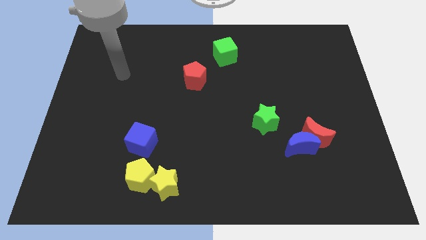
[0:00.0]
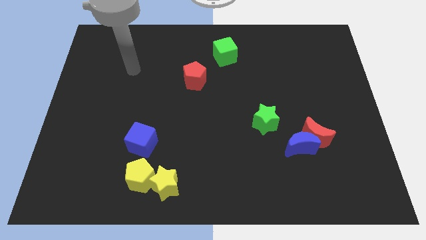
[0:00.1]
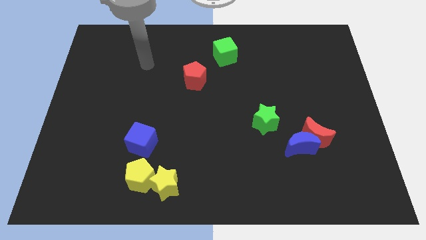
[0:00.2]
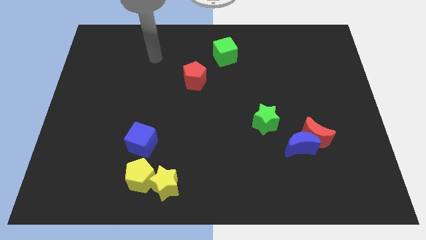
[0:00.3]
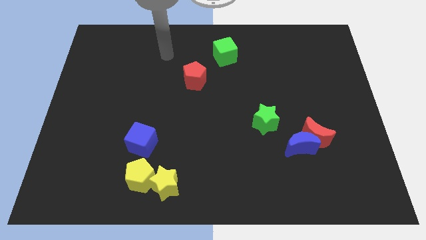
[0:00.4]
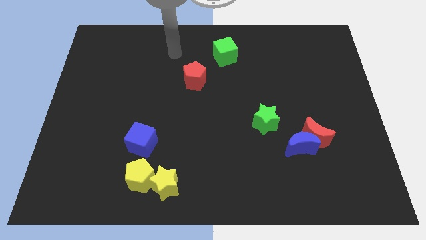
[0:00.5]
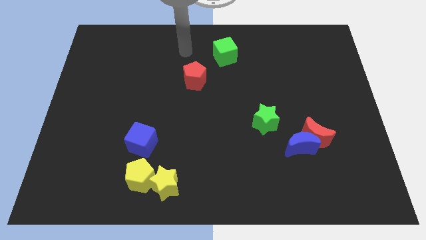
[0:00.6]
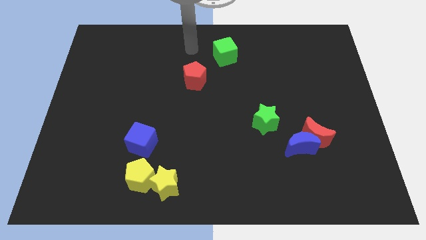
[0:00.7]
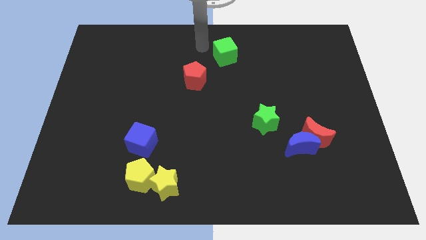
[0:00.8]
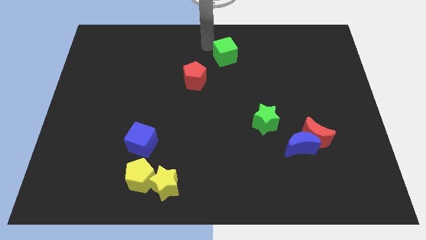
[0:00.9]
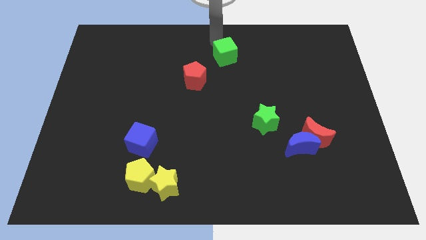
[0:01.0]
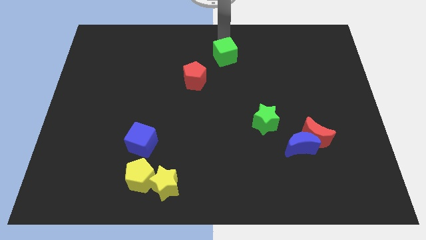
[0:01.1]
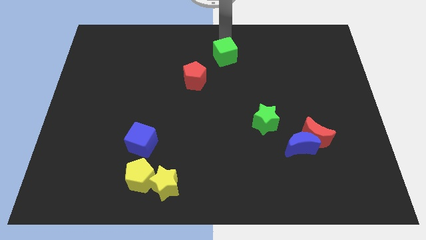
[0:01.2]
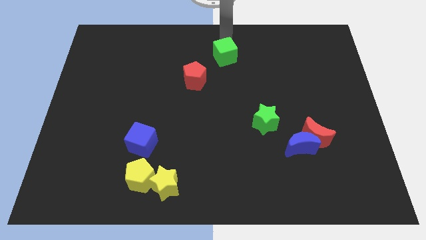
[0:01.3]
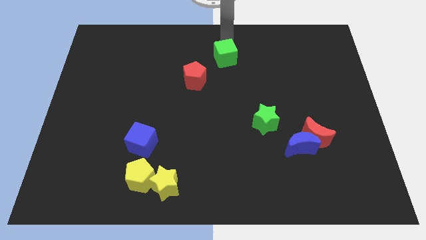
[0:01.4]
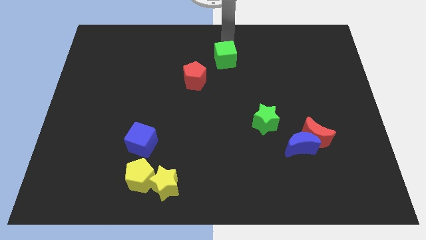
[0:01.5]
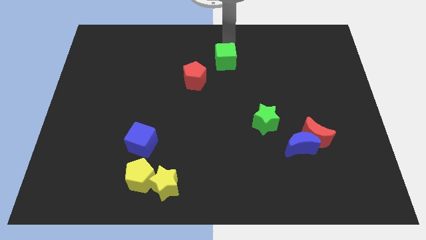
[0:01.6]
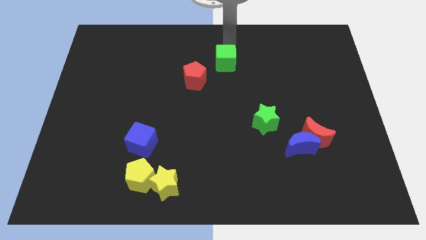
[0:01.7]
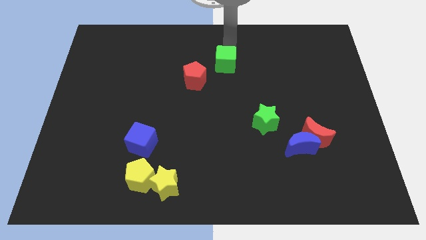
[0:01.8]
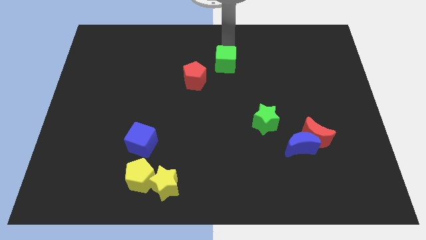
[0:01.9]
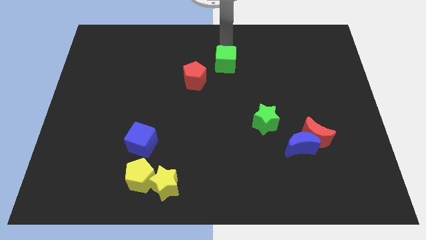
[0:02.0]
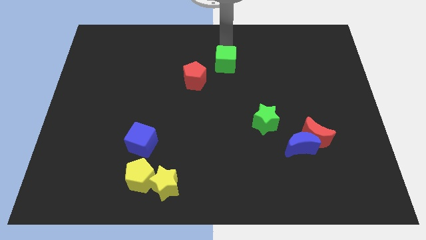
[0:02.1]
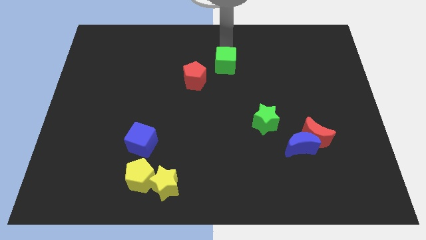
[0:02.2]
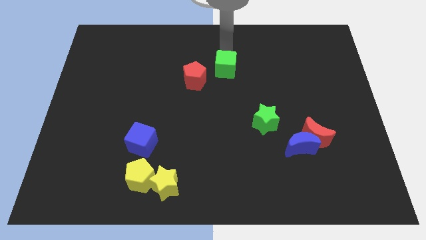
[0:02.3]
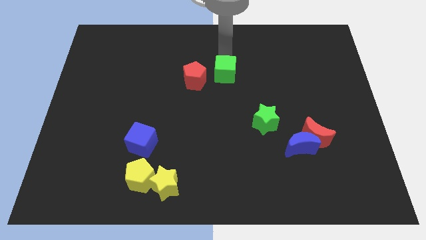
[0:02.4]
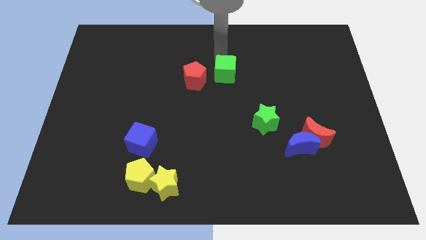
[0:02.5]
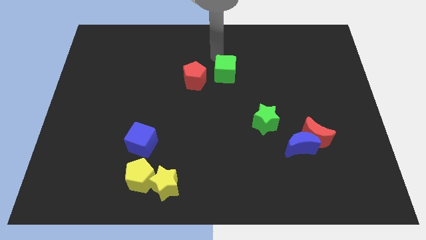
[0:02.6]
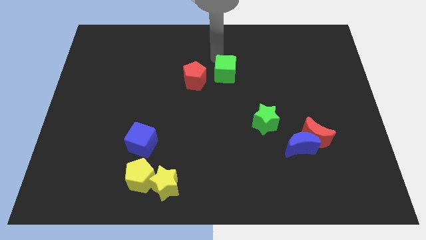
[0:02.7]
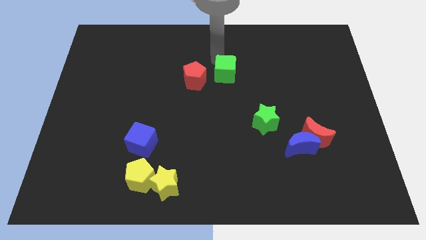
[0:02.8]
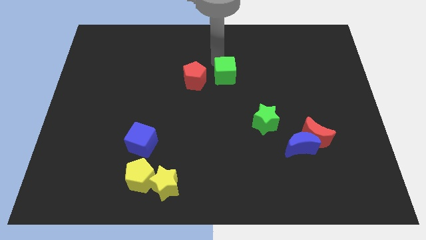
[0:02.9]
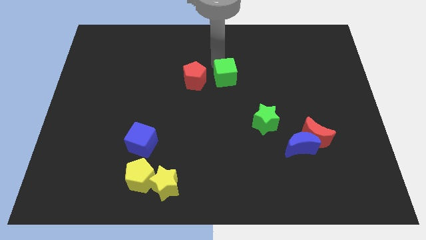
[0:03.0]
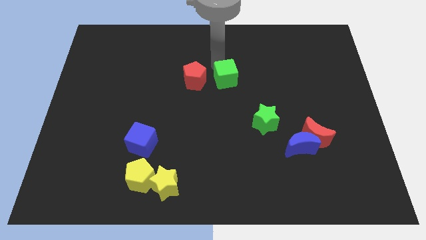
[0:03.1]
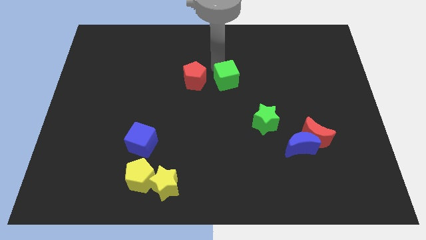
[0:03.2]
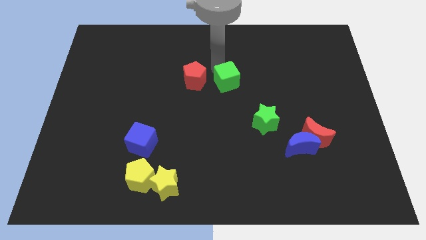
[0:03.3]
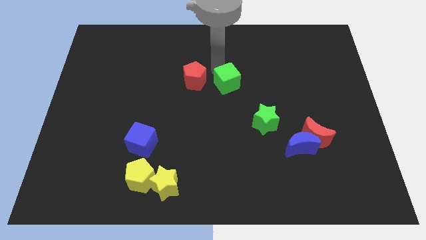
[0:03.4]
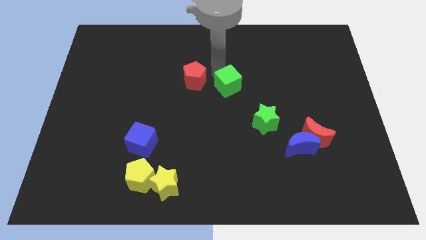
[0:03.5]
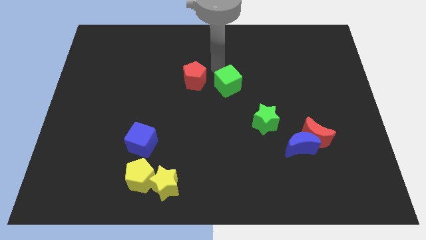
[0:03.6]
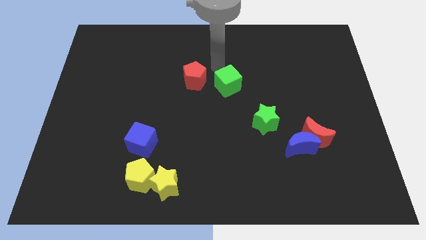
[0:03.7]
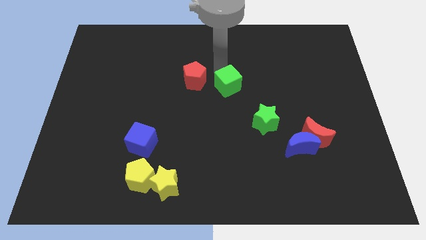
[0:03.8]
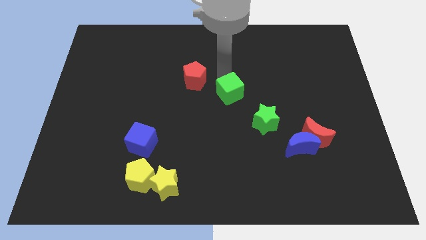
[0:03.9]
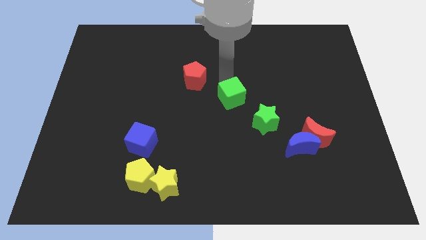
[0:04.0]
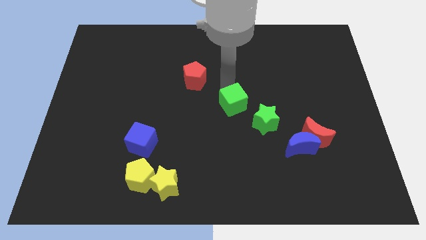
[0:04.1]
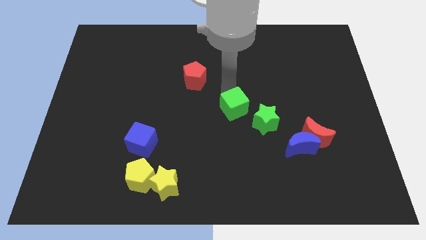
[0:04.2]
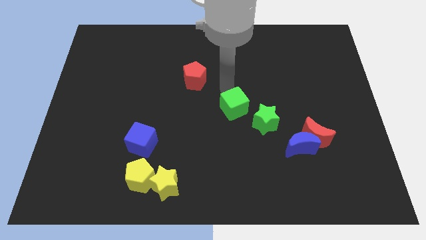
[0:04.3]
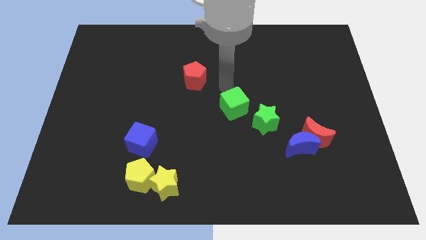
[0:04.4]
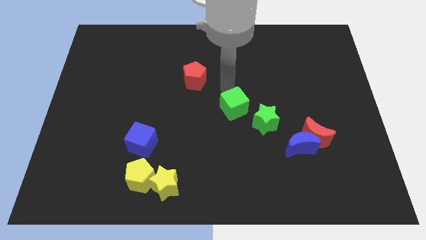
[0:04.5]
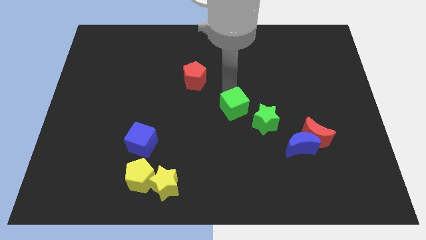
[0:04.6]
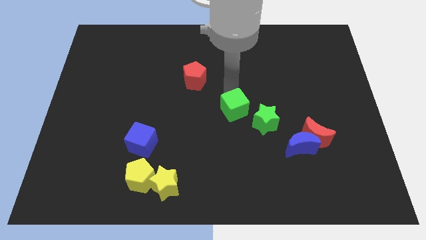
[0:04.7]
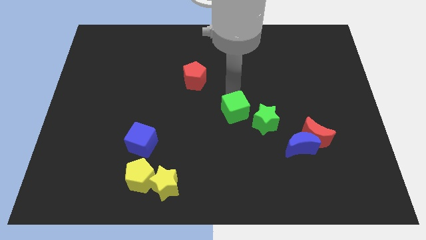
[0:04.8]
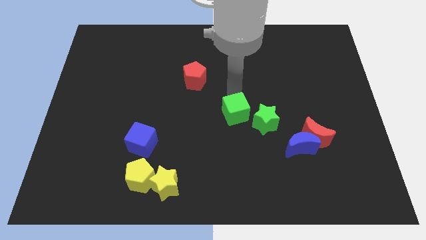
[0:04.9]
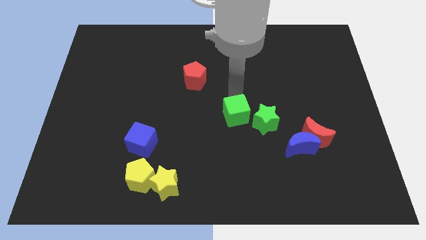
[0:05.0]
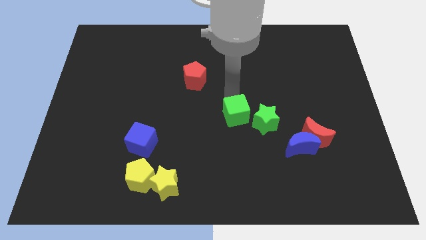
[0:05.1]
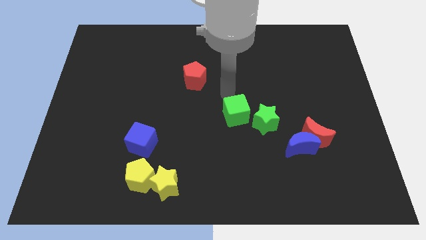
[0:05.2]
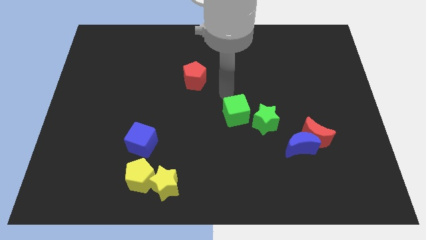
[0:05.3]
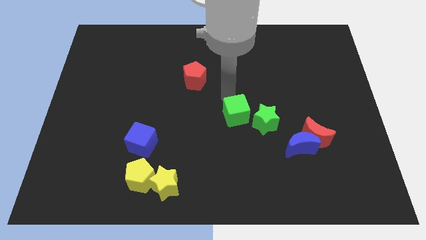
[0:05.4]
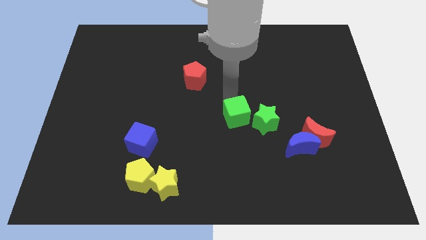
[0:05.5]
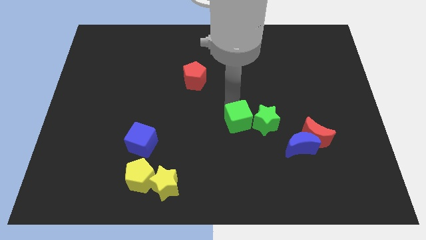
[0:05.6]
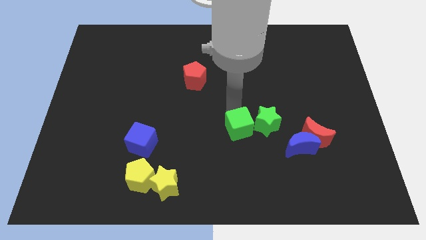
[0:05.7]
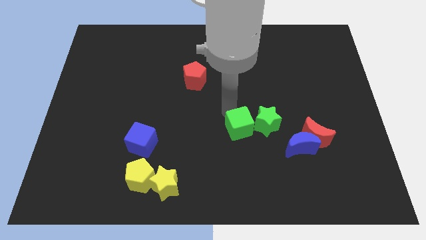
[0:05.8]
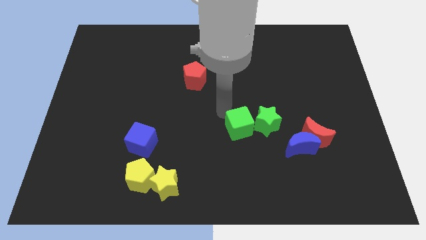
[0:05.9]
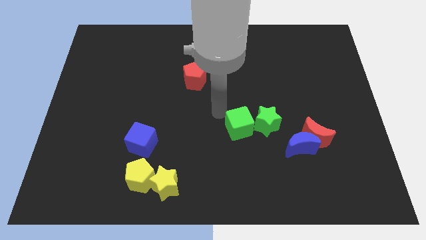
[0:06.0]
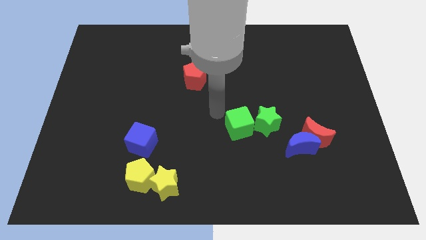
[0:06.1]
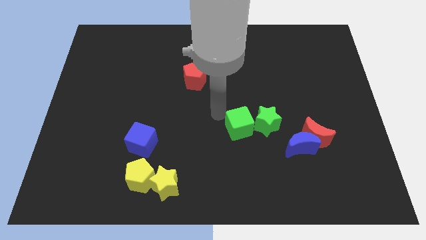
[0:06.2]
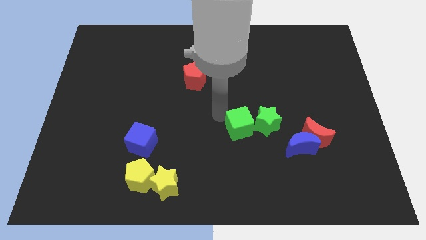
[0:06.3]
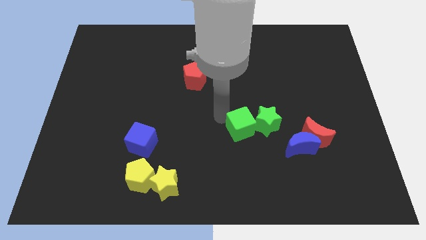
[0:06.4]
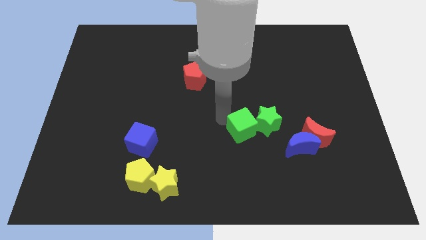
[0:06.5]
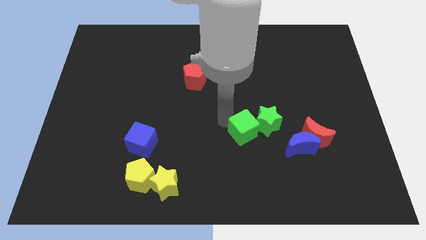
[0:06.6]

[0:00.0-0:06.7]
push the green cube left of the red moon
